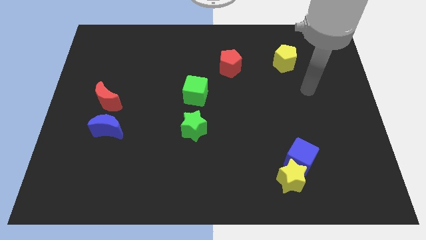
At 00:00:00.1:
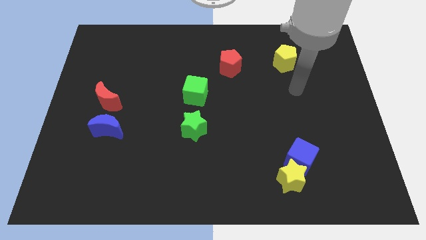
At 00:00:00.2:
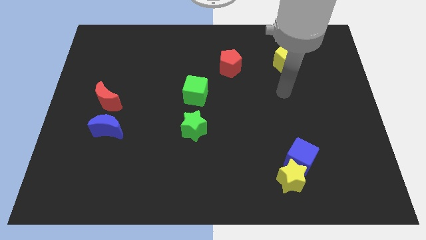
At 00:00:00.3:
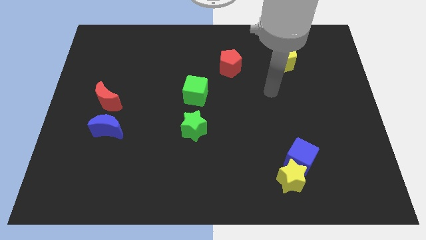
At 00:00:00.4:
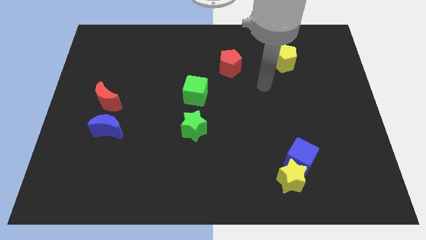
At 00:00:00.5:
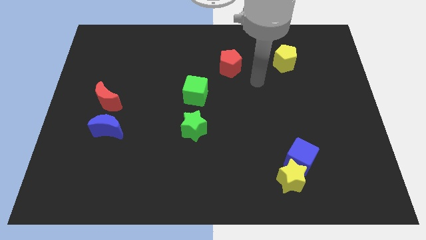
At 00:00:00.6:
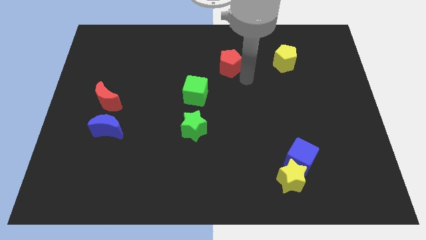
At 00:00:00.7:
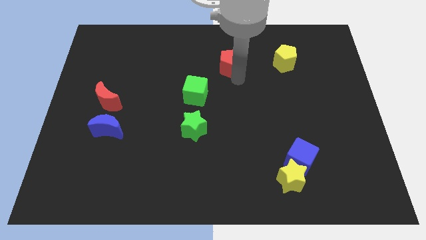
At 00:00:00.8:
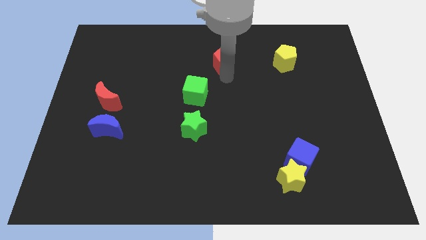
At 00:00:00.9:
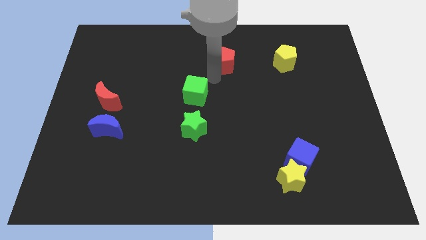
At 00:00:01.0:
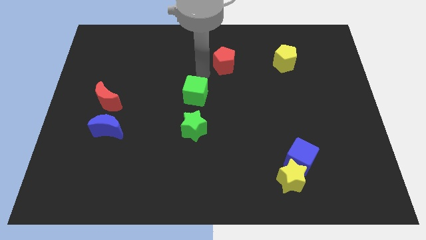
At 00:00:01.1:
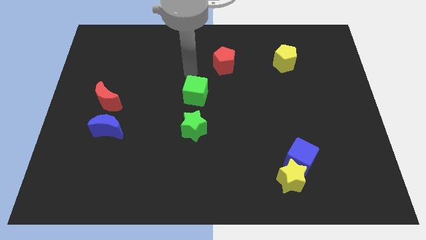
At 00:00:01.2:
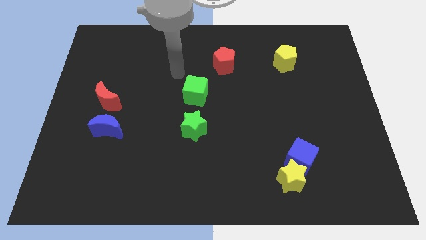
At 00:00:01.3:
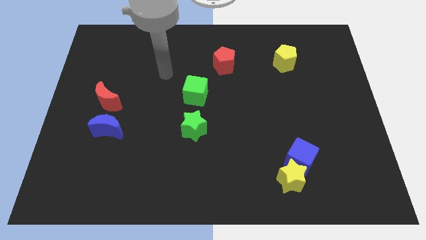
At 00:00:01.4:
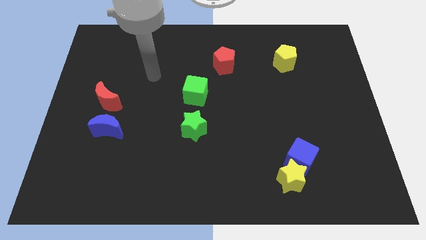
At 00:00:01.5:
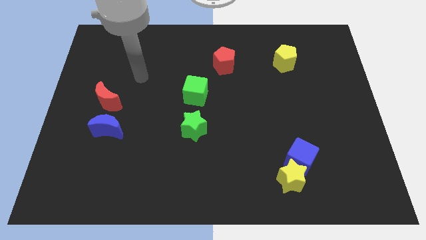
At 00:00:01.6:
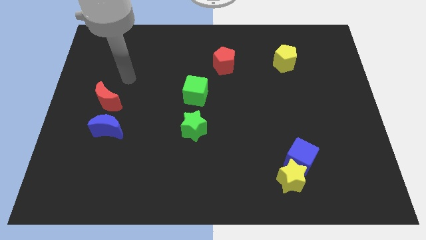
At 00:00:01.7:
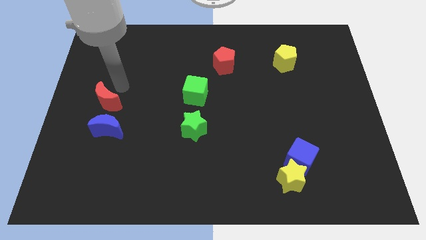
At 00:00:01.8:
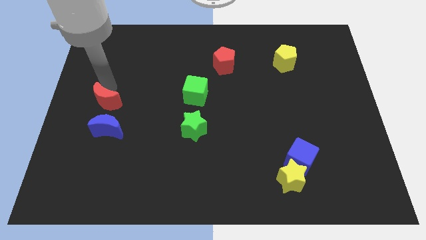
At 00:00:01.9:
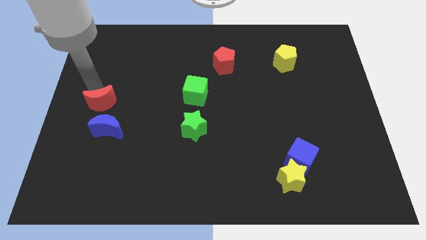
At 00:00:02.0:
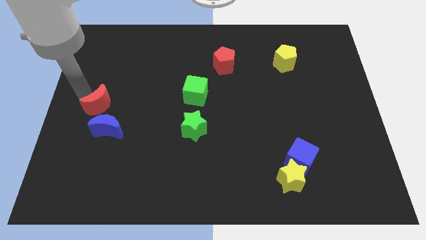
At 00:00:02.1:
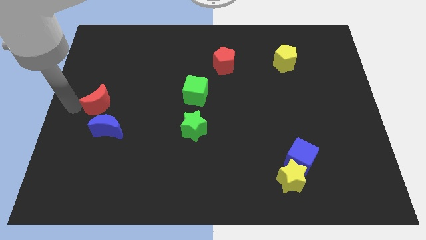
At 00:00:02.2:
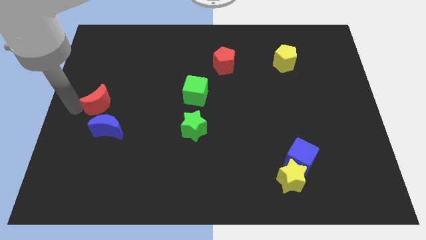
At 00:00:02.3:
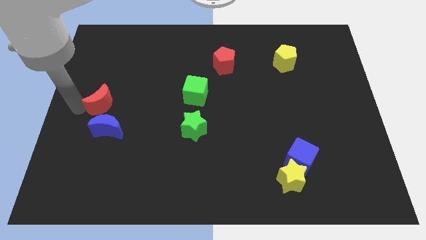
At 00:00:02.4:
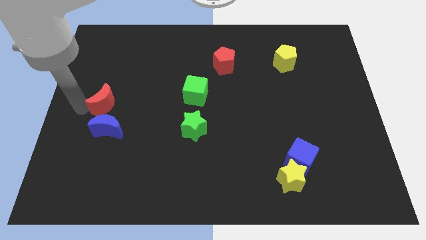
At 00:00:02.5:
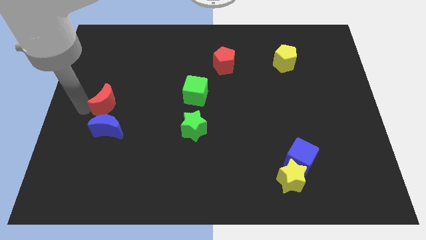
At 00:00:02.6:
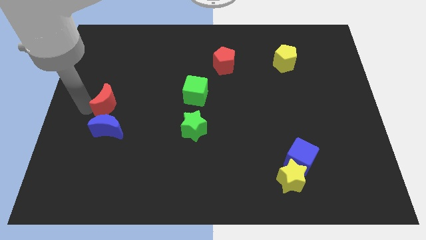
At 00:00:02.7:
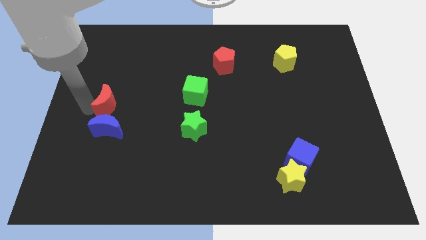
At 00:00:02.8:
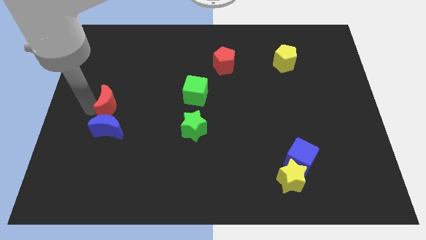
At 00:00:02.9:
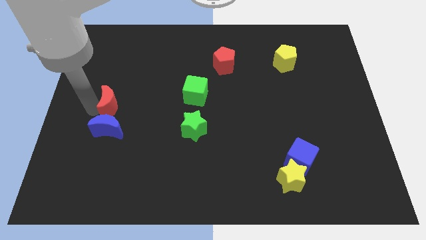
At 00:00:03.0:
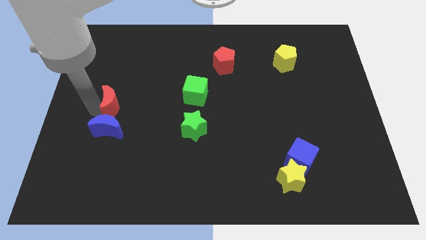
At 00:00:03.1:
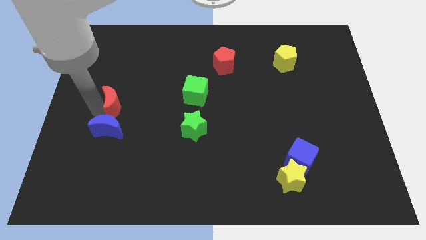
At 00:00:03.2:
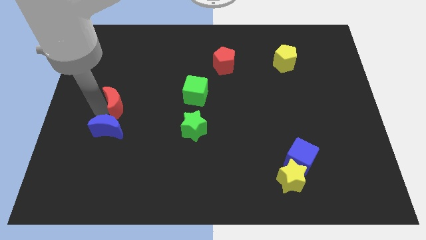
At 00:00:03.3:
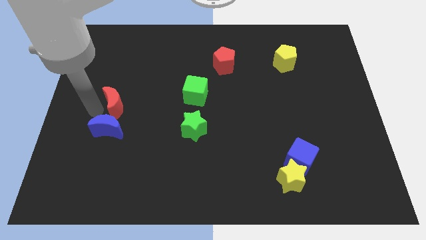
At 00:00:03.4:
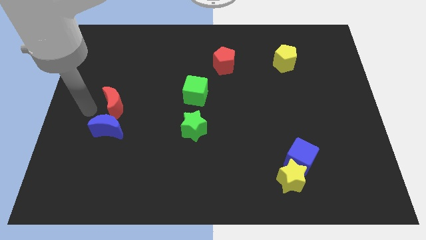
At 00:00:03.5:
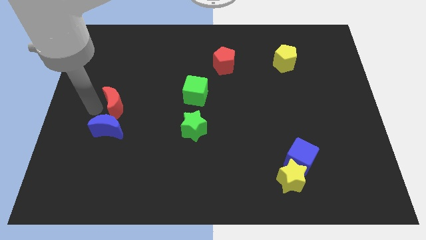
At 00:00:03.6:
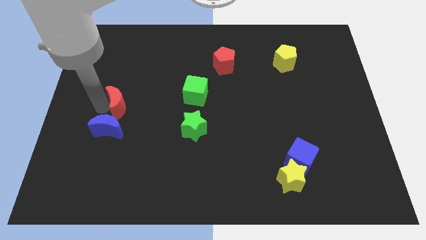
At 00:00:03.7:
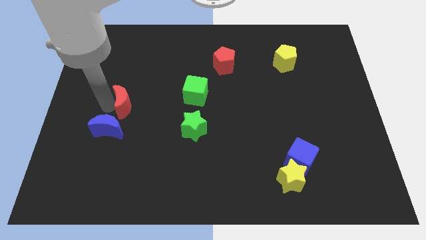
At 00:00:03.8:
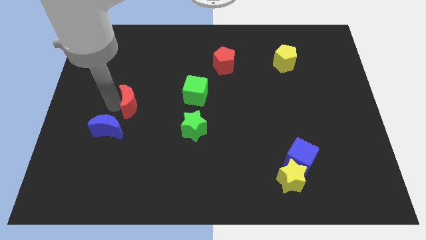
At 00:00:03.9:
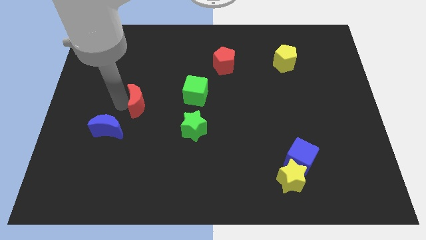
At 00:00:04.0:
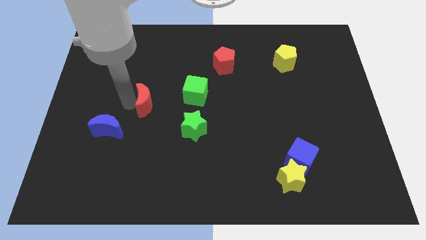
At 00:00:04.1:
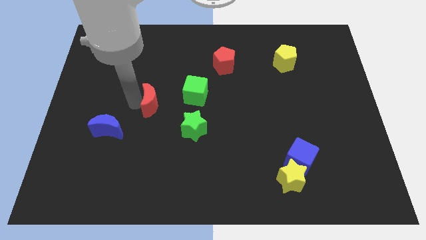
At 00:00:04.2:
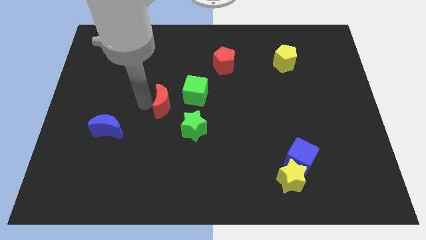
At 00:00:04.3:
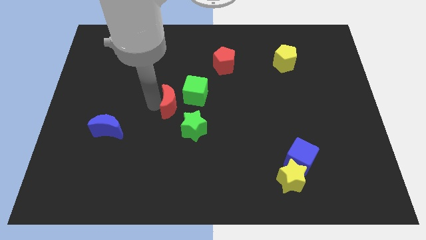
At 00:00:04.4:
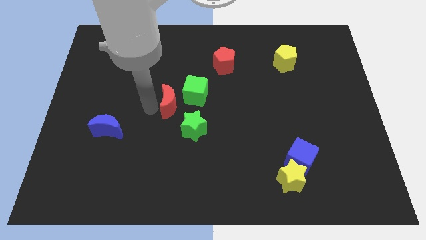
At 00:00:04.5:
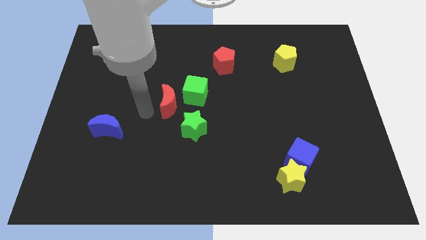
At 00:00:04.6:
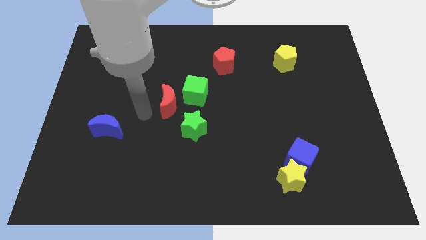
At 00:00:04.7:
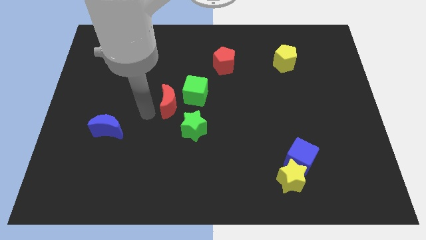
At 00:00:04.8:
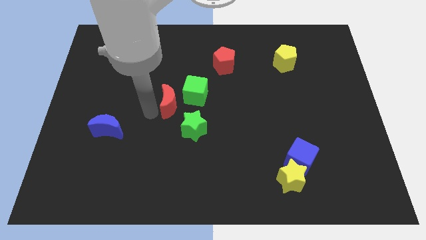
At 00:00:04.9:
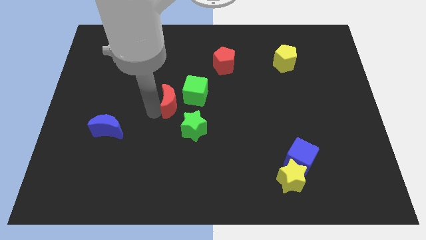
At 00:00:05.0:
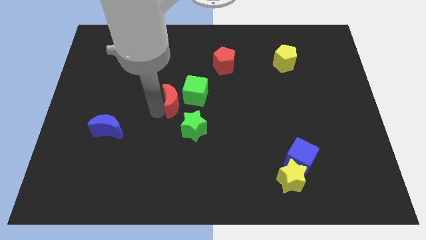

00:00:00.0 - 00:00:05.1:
slide the red moon towards the green cube

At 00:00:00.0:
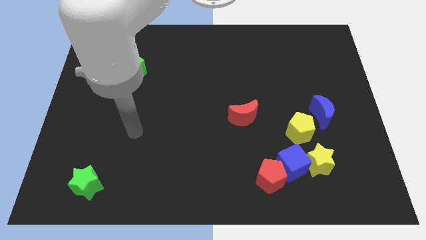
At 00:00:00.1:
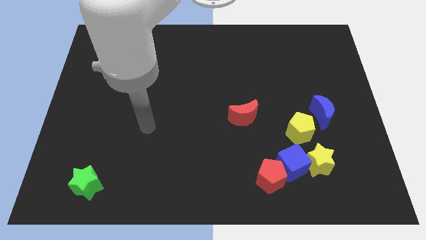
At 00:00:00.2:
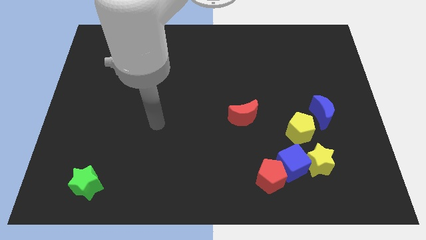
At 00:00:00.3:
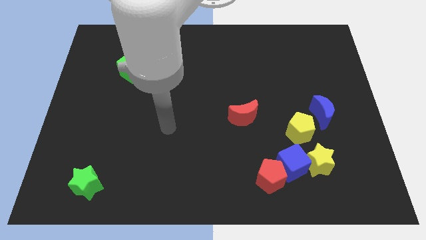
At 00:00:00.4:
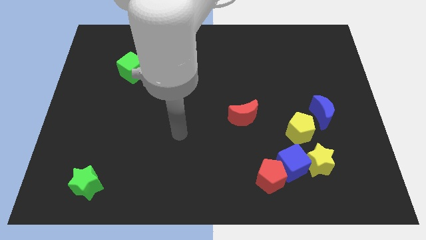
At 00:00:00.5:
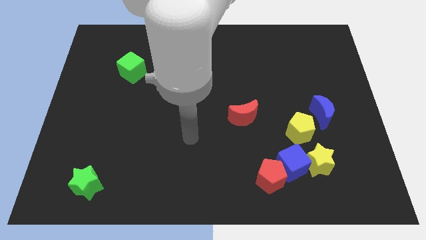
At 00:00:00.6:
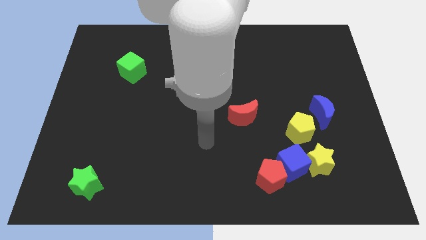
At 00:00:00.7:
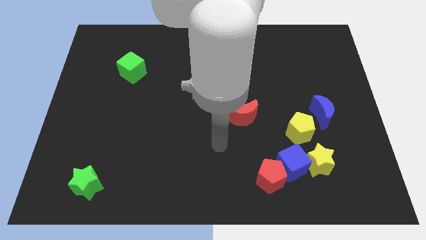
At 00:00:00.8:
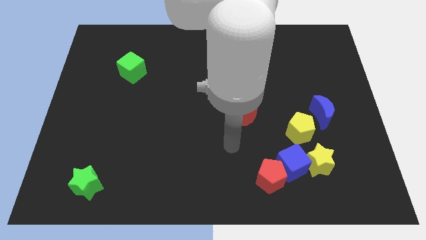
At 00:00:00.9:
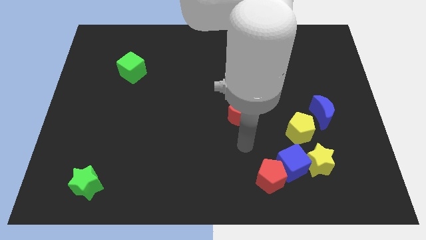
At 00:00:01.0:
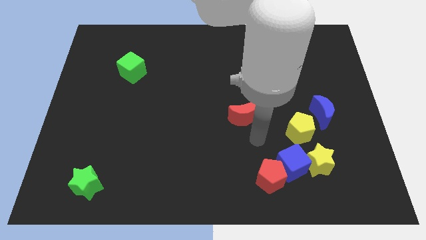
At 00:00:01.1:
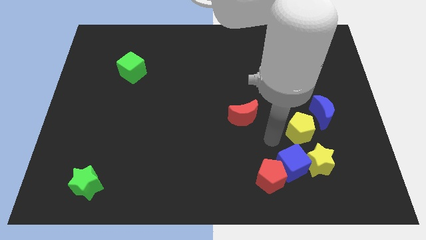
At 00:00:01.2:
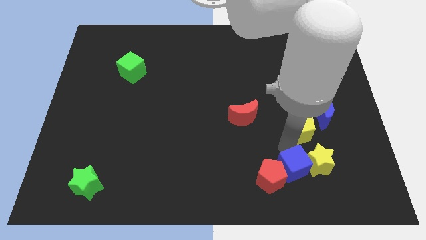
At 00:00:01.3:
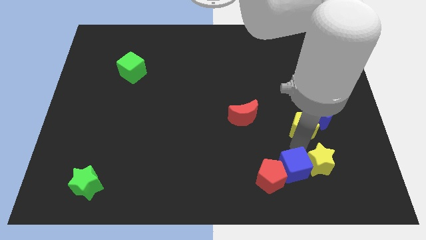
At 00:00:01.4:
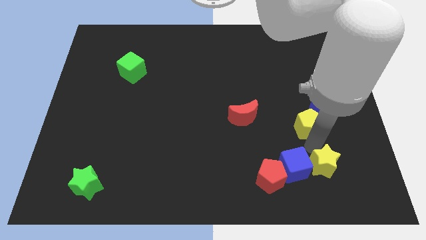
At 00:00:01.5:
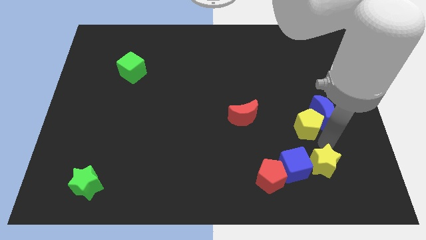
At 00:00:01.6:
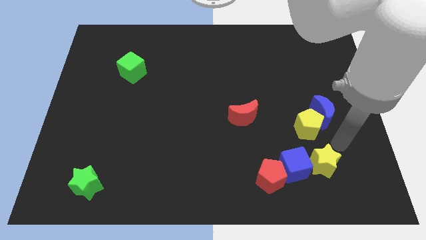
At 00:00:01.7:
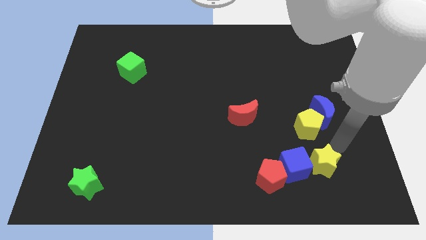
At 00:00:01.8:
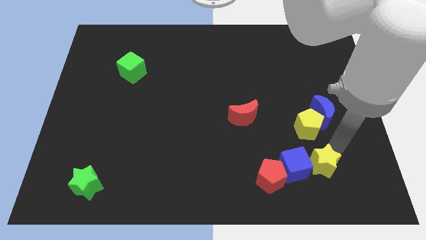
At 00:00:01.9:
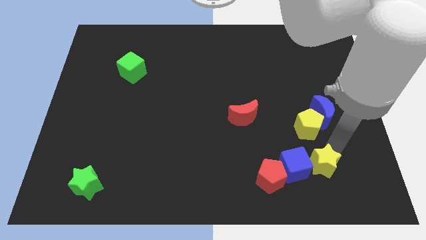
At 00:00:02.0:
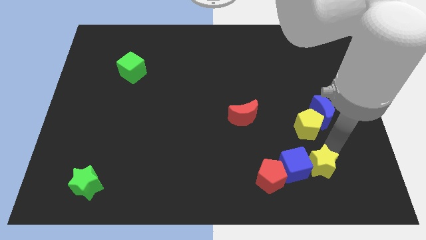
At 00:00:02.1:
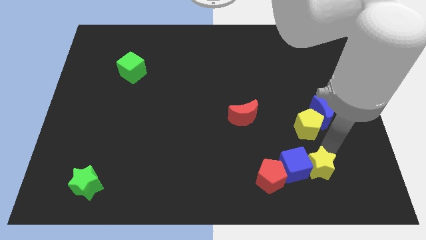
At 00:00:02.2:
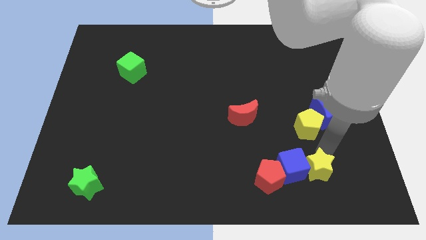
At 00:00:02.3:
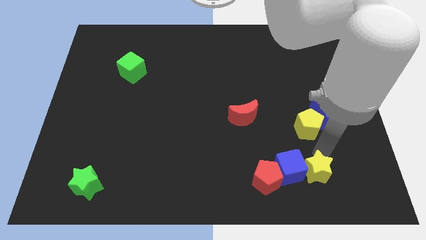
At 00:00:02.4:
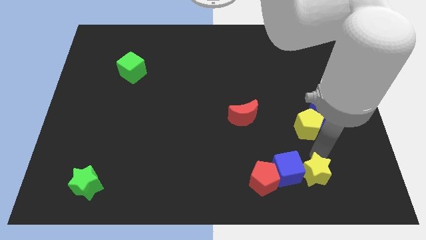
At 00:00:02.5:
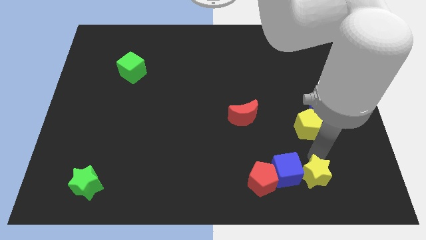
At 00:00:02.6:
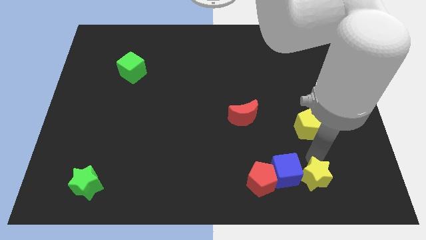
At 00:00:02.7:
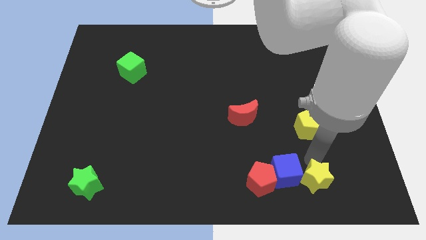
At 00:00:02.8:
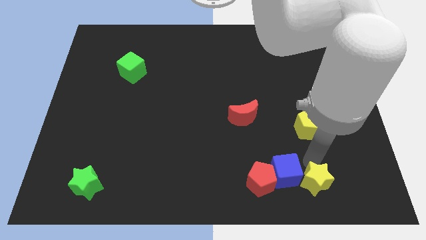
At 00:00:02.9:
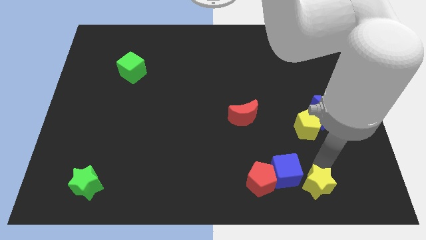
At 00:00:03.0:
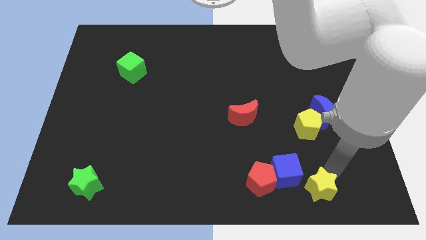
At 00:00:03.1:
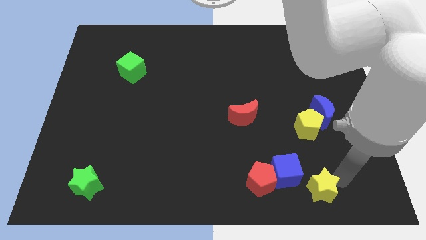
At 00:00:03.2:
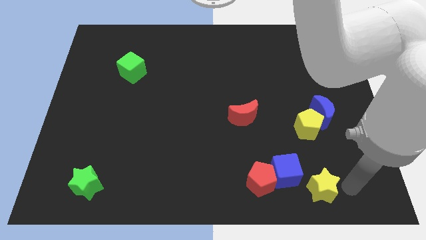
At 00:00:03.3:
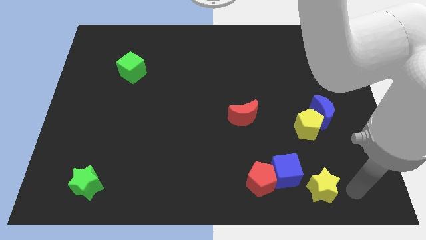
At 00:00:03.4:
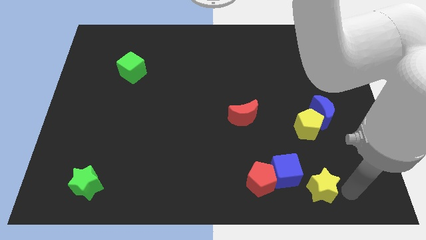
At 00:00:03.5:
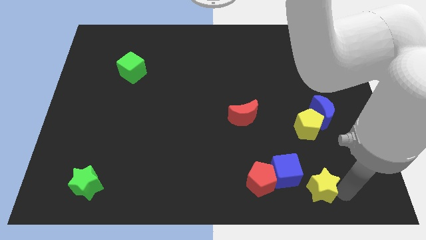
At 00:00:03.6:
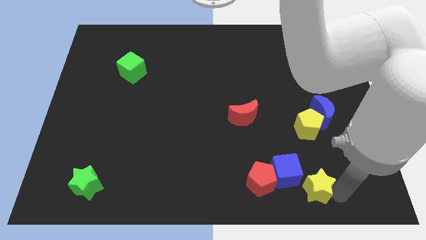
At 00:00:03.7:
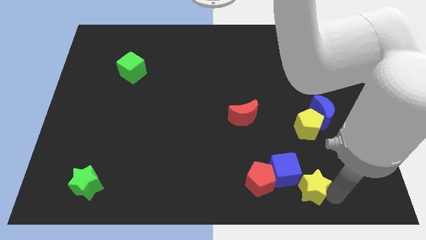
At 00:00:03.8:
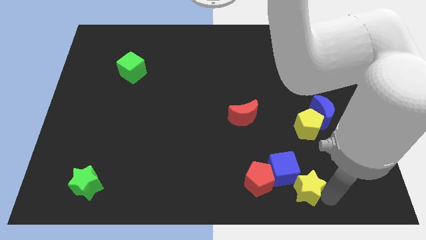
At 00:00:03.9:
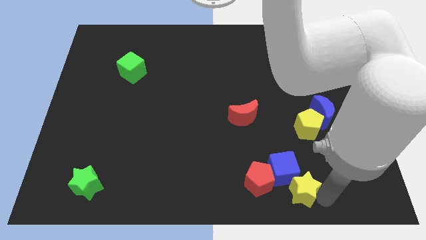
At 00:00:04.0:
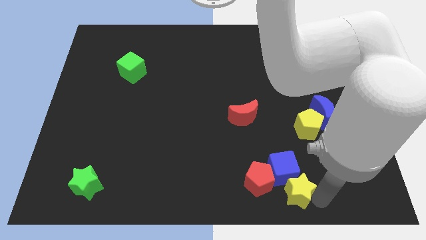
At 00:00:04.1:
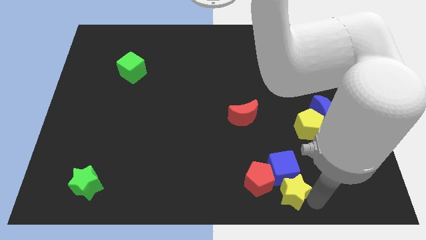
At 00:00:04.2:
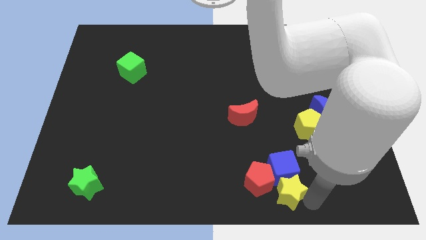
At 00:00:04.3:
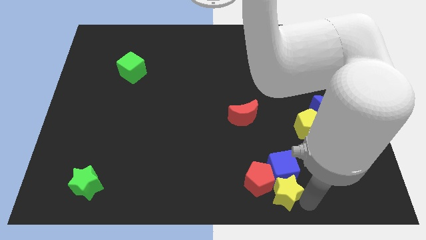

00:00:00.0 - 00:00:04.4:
push the yellow star next to the red pentagon
